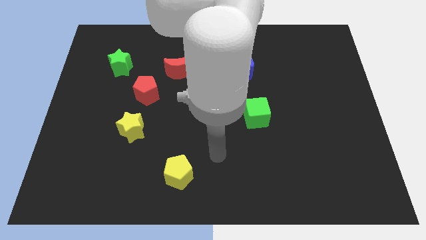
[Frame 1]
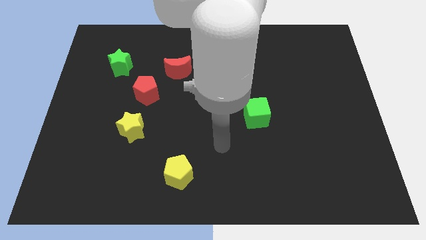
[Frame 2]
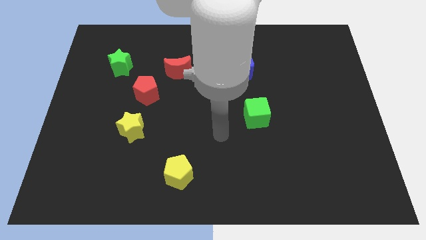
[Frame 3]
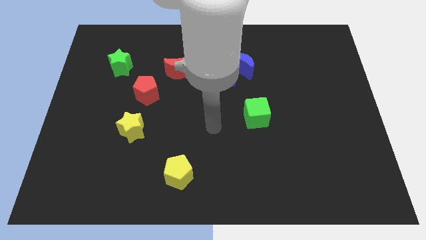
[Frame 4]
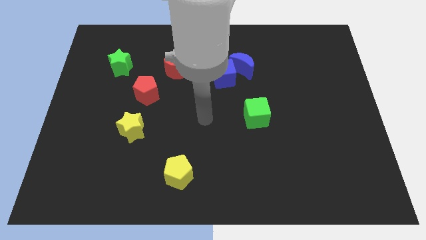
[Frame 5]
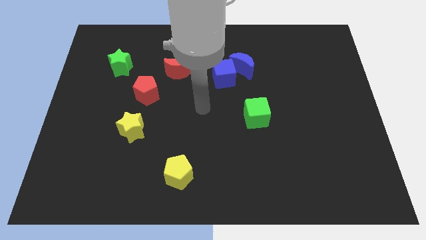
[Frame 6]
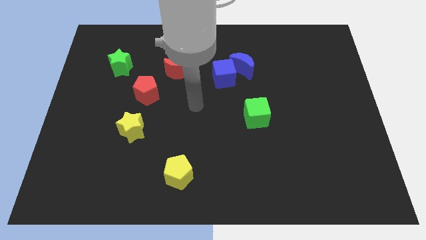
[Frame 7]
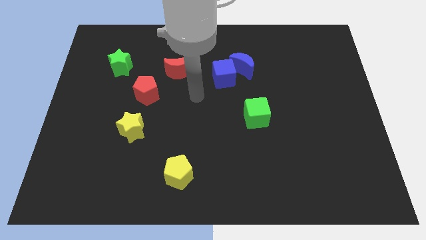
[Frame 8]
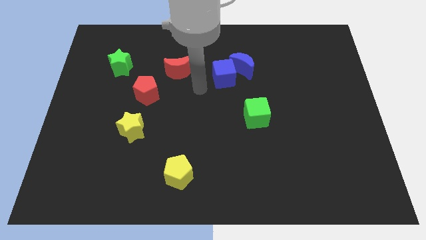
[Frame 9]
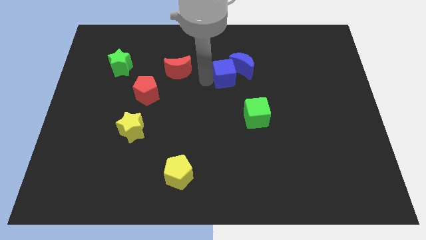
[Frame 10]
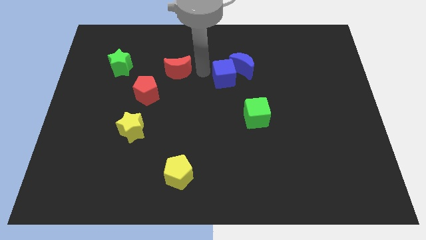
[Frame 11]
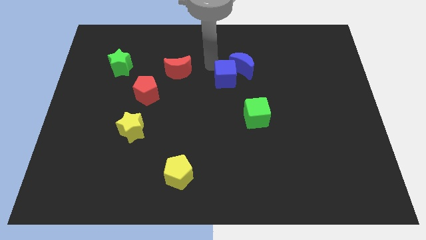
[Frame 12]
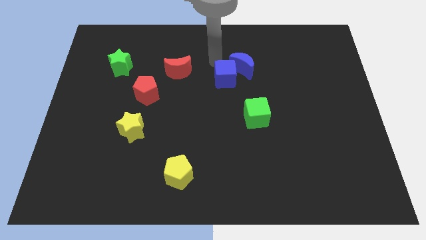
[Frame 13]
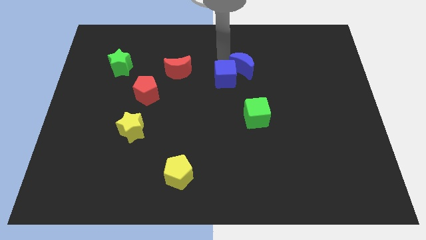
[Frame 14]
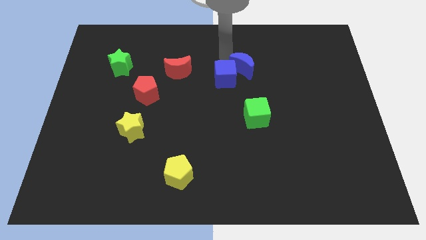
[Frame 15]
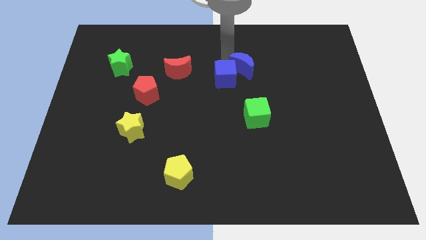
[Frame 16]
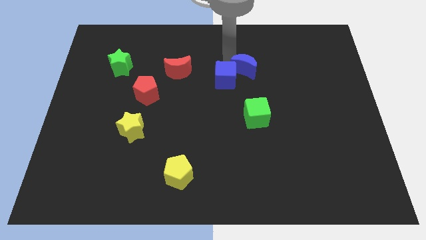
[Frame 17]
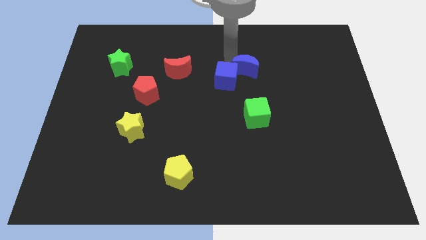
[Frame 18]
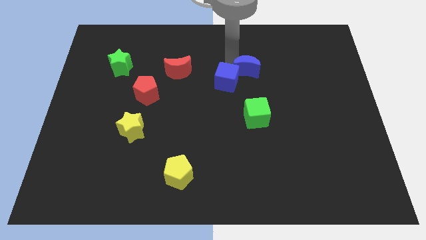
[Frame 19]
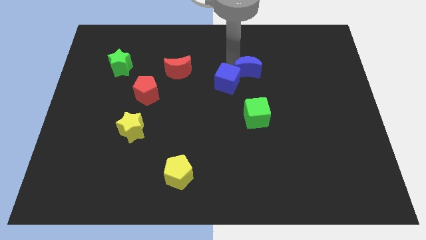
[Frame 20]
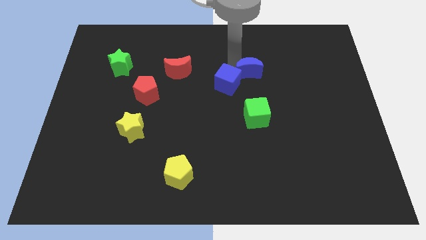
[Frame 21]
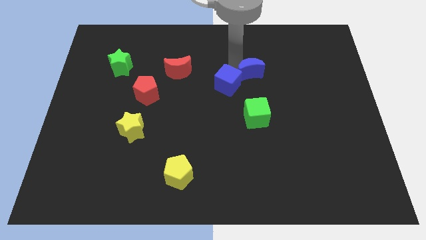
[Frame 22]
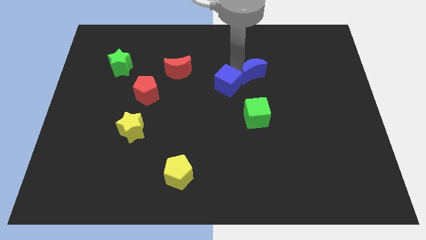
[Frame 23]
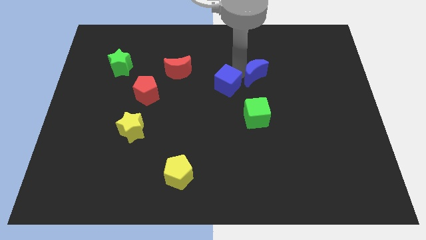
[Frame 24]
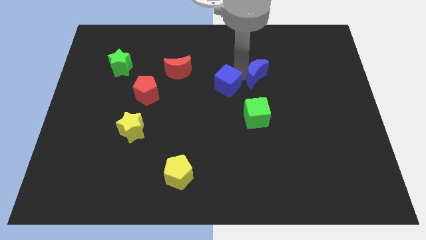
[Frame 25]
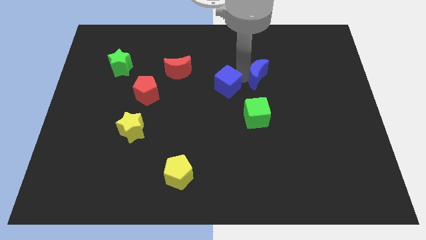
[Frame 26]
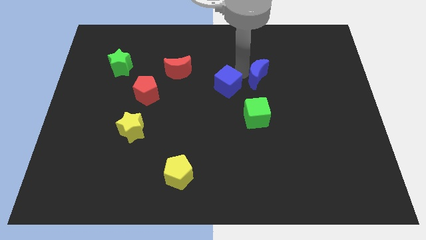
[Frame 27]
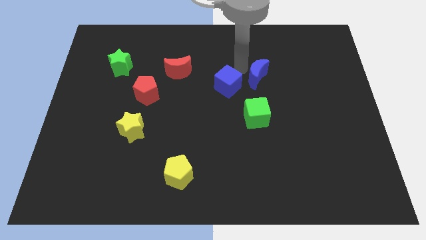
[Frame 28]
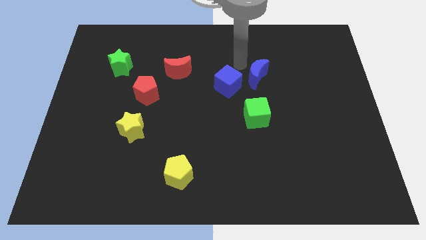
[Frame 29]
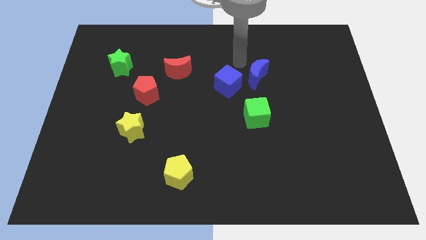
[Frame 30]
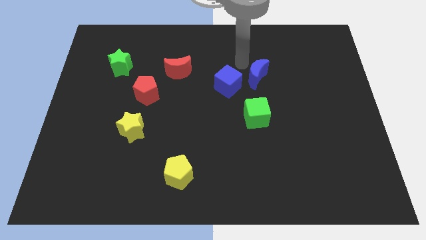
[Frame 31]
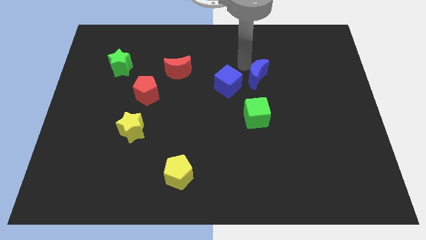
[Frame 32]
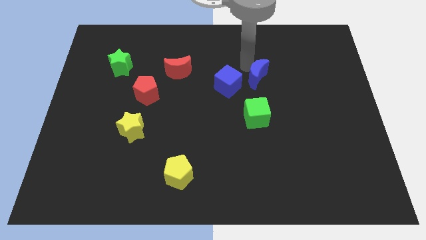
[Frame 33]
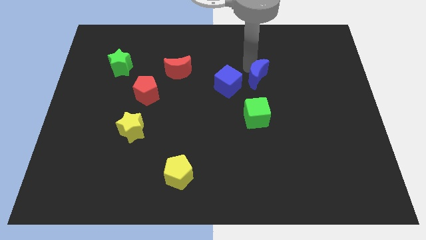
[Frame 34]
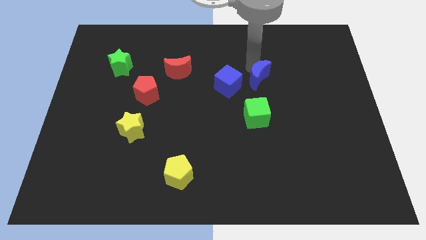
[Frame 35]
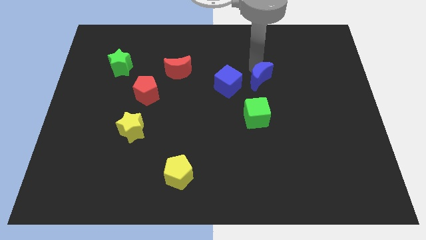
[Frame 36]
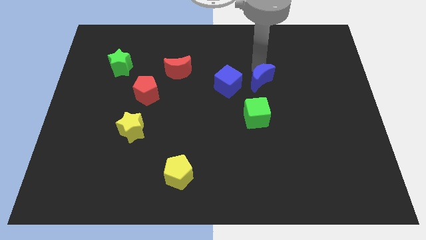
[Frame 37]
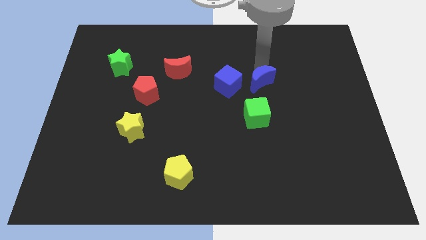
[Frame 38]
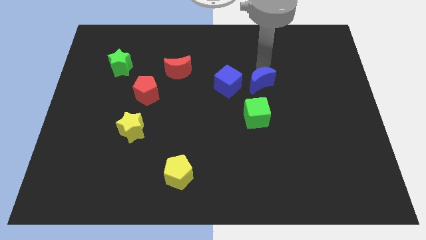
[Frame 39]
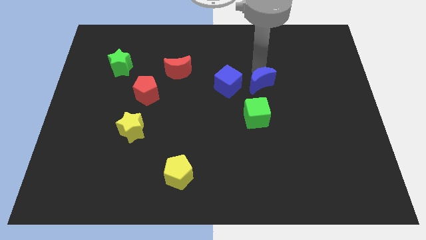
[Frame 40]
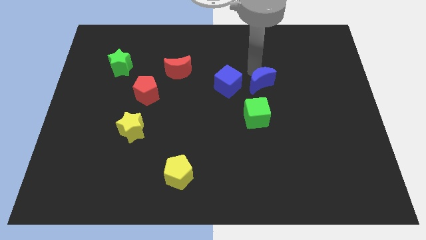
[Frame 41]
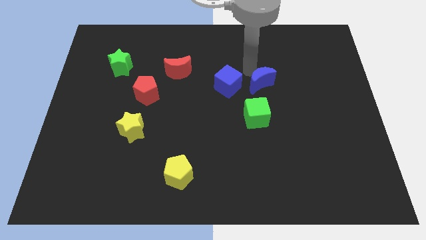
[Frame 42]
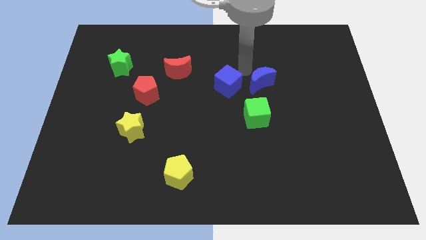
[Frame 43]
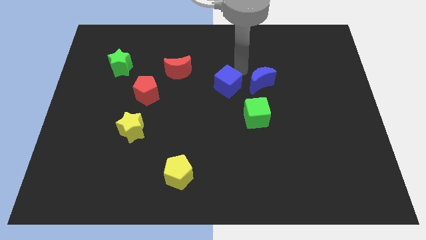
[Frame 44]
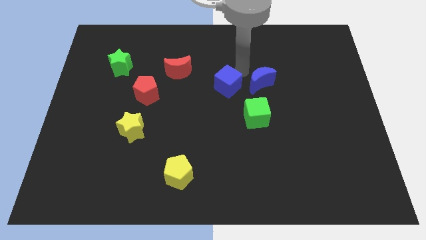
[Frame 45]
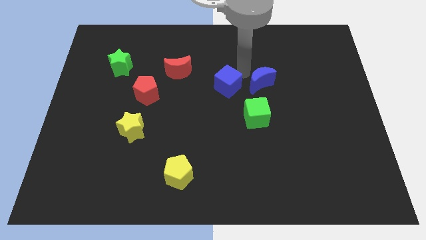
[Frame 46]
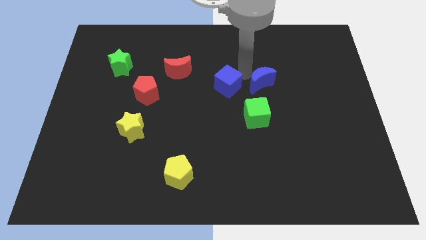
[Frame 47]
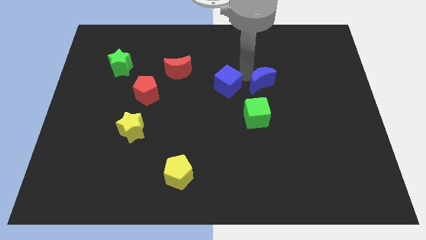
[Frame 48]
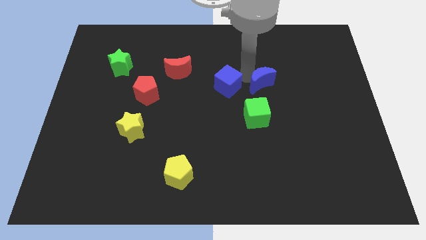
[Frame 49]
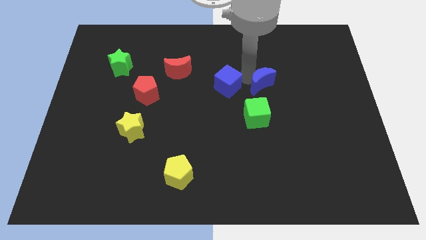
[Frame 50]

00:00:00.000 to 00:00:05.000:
push the blue moon diagonally downwards and to the right slightly

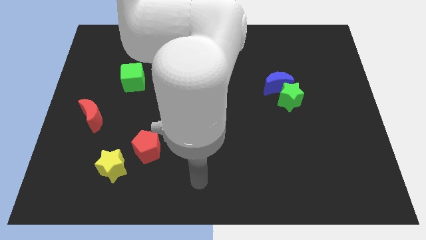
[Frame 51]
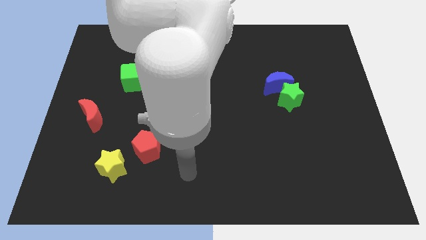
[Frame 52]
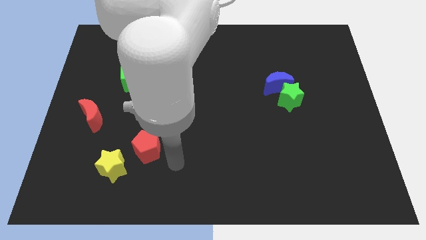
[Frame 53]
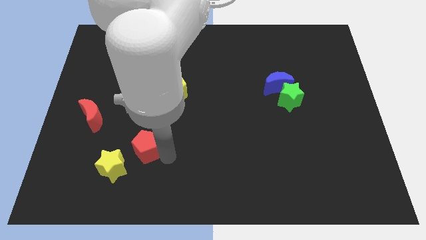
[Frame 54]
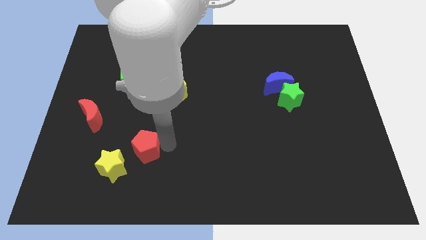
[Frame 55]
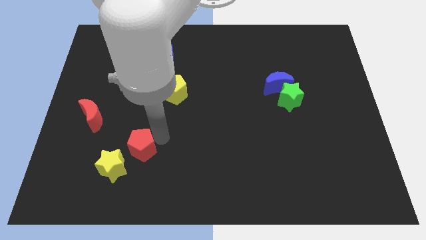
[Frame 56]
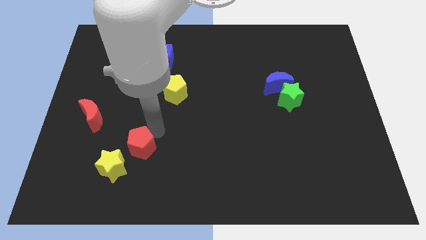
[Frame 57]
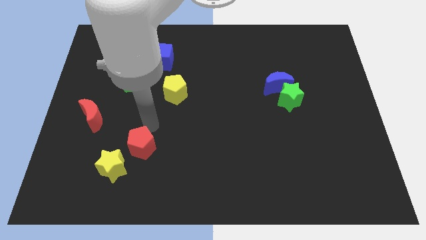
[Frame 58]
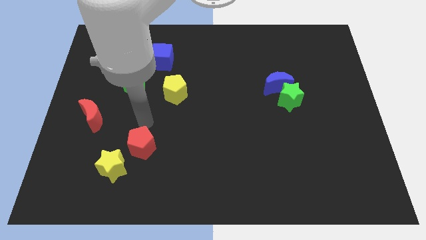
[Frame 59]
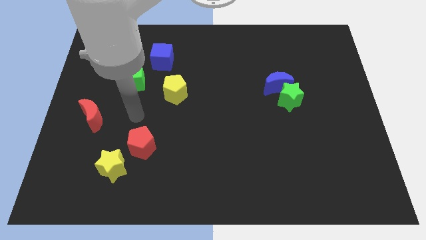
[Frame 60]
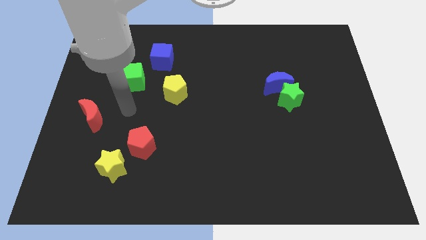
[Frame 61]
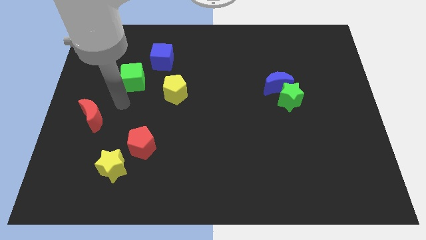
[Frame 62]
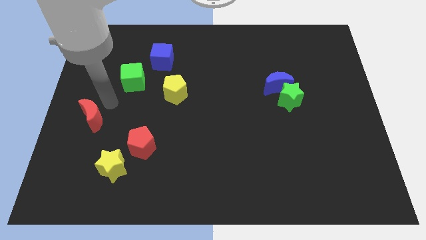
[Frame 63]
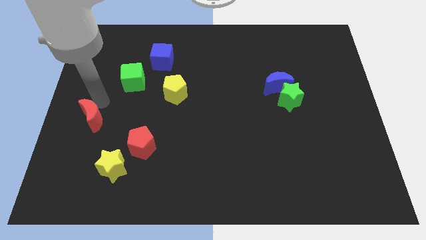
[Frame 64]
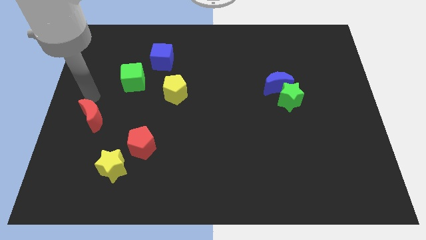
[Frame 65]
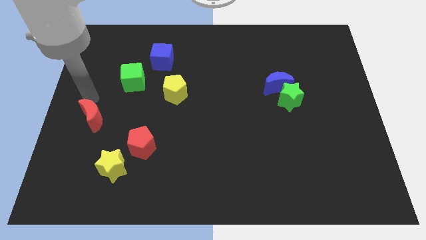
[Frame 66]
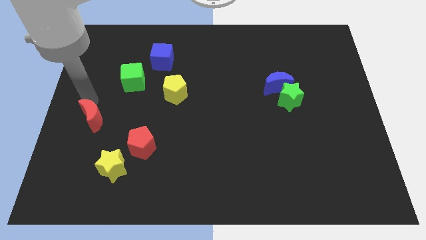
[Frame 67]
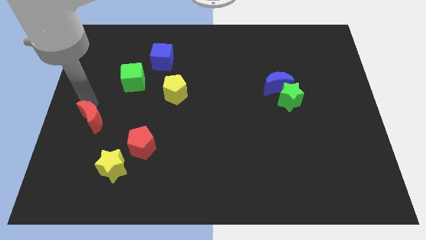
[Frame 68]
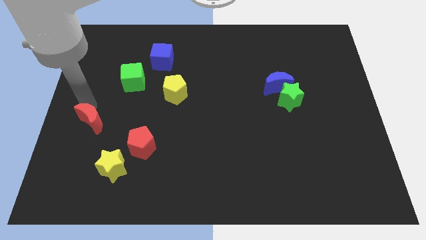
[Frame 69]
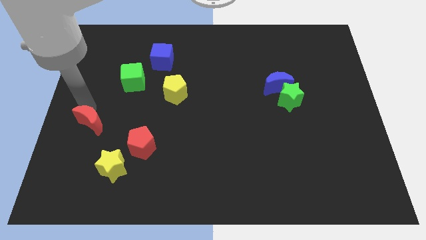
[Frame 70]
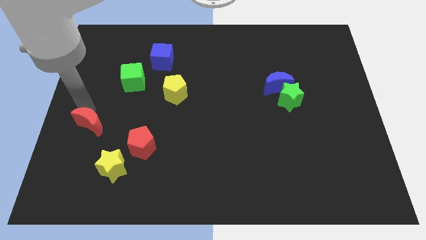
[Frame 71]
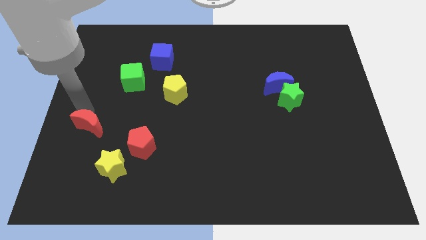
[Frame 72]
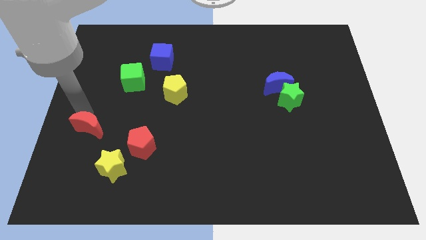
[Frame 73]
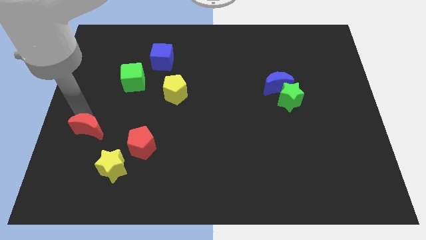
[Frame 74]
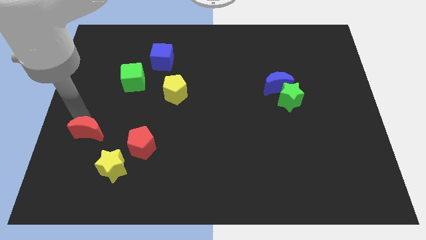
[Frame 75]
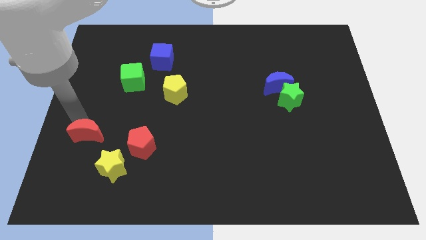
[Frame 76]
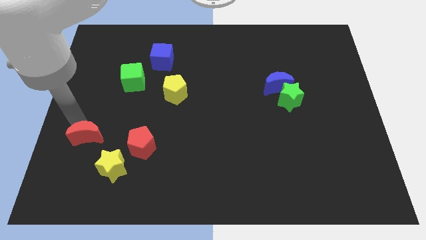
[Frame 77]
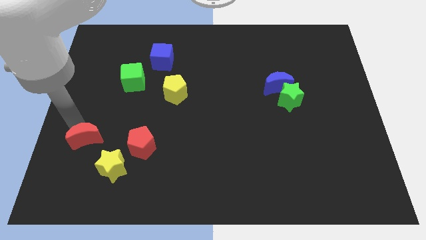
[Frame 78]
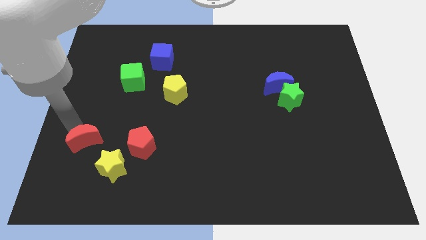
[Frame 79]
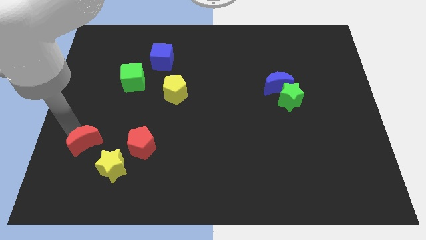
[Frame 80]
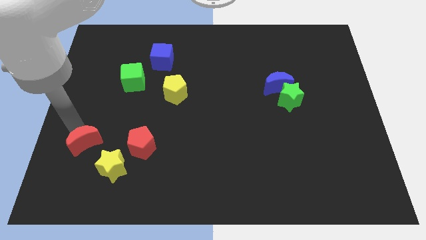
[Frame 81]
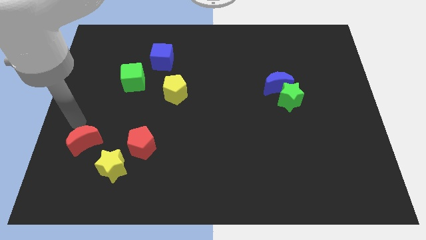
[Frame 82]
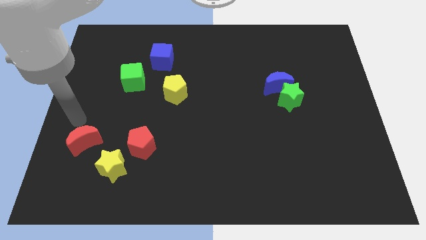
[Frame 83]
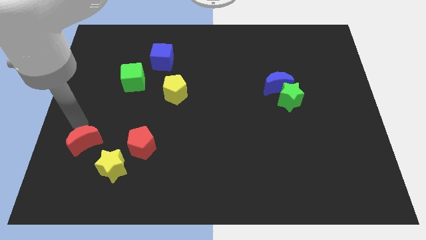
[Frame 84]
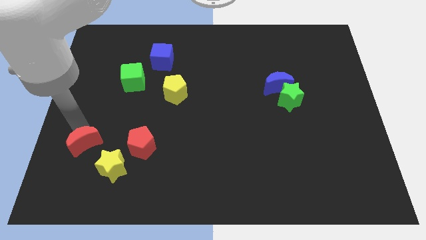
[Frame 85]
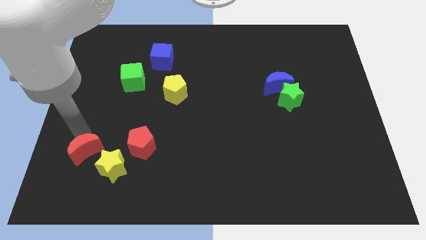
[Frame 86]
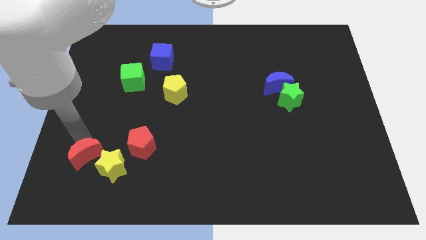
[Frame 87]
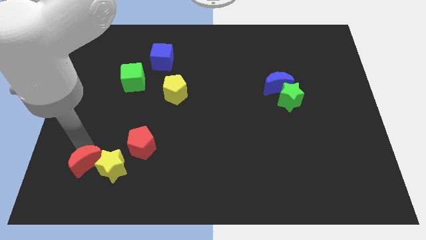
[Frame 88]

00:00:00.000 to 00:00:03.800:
push the red moon a little bit down and to the right diagonally
